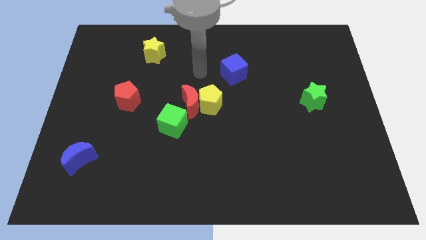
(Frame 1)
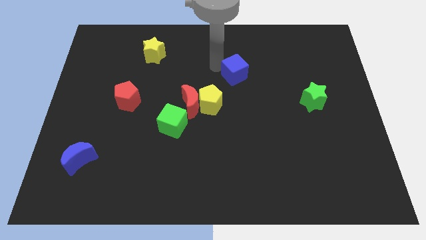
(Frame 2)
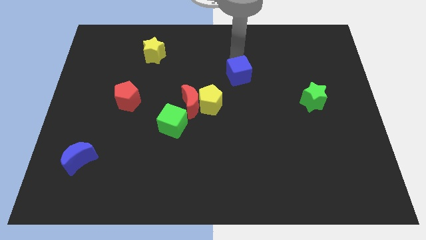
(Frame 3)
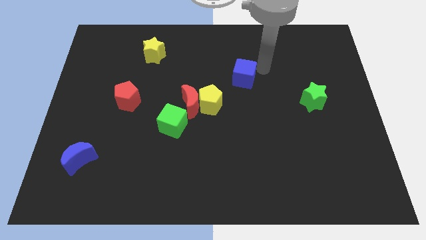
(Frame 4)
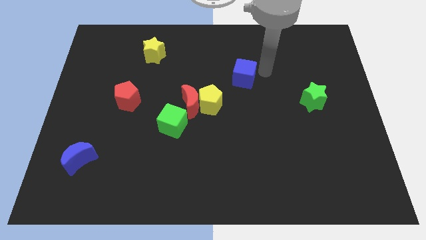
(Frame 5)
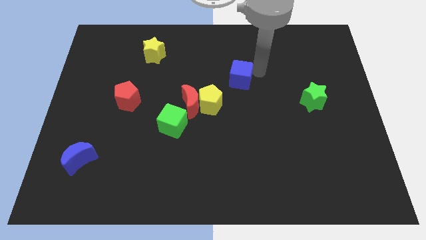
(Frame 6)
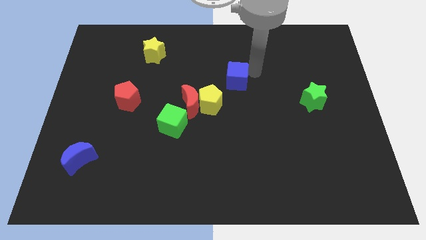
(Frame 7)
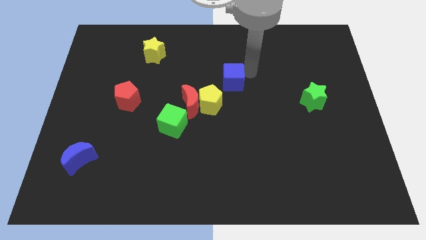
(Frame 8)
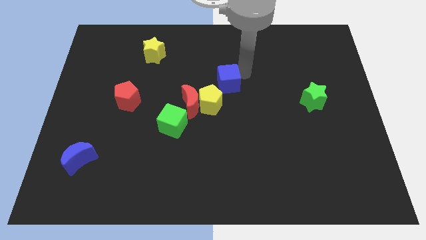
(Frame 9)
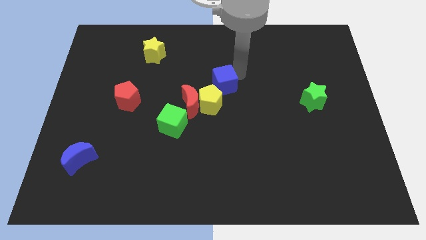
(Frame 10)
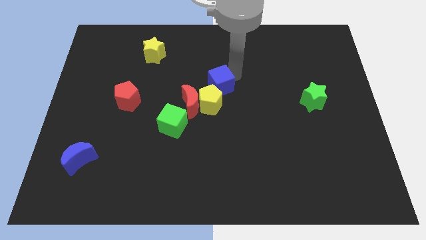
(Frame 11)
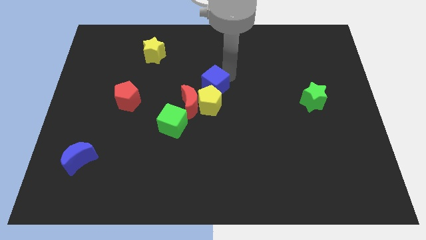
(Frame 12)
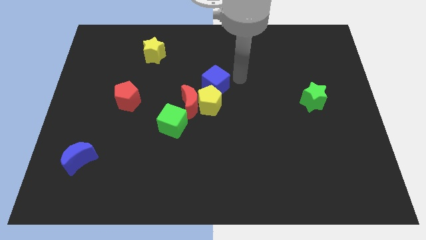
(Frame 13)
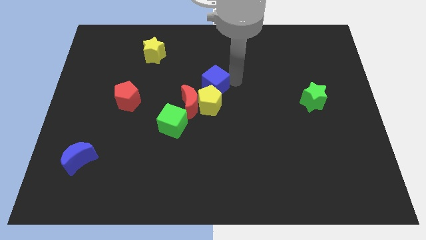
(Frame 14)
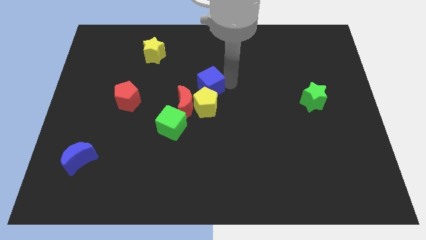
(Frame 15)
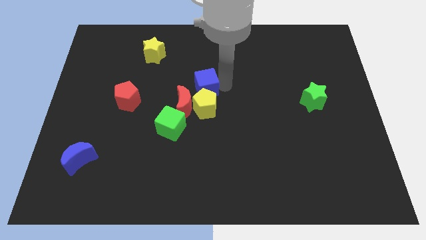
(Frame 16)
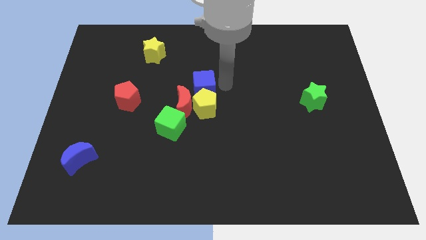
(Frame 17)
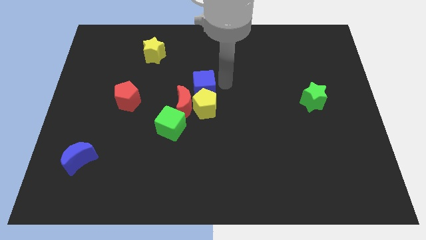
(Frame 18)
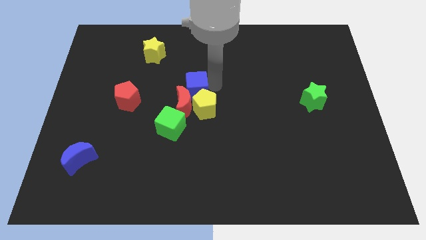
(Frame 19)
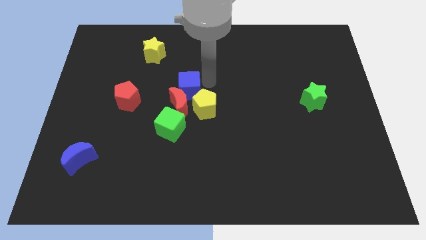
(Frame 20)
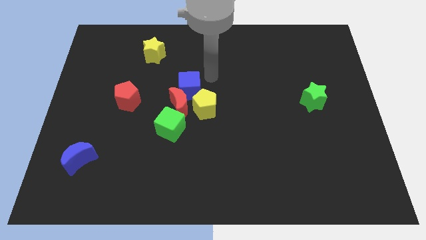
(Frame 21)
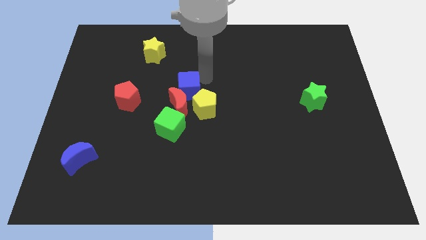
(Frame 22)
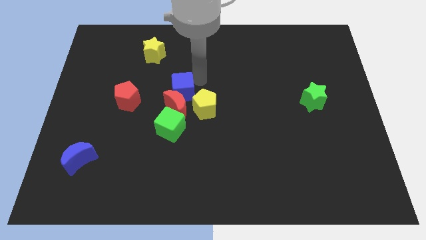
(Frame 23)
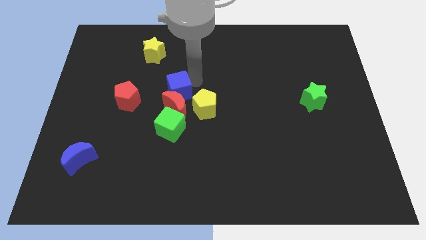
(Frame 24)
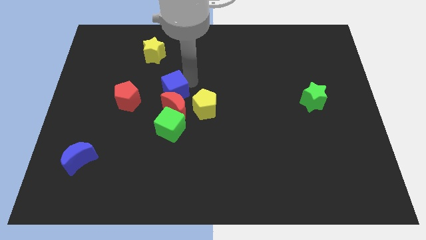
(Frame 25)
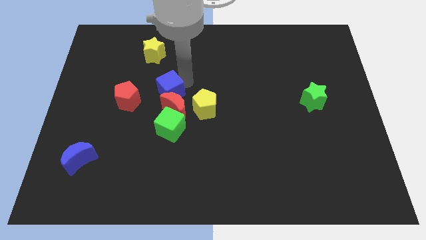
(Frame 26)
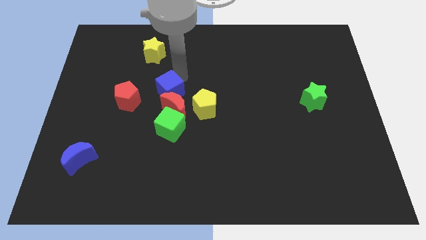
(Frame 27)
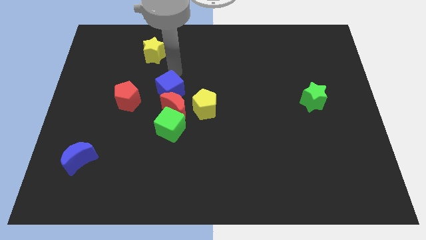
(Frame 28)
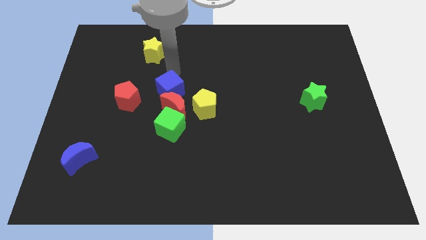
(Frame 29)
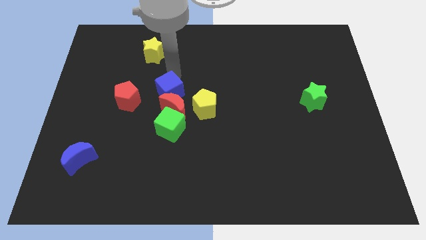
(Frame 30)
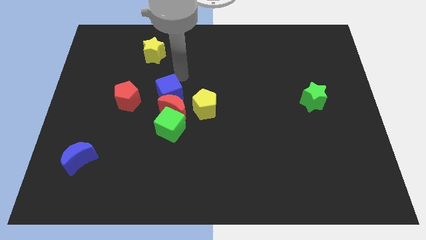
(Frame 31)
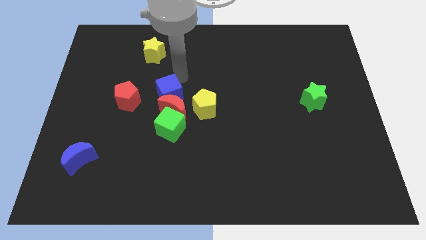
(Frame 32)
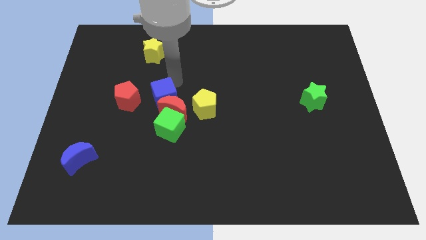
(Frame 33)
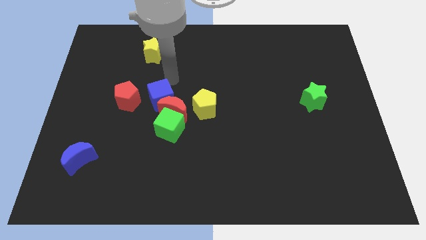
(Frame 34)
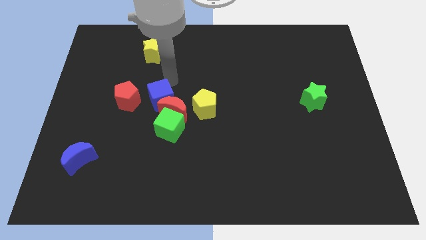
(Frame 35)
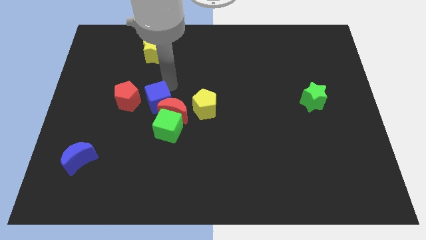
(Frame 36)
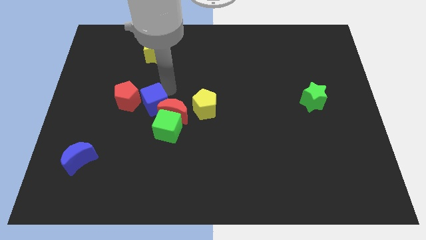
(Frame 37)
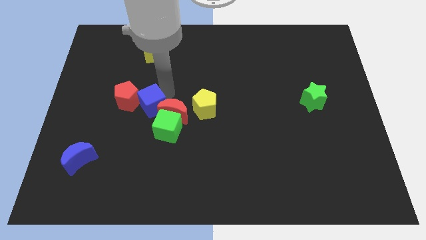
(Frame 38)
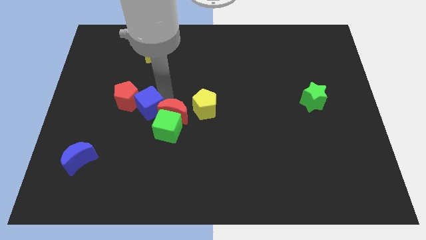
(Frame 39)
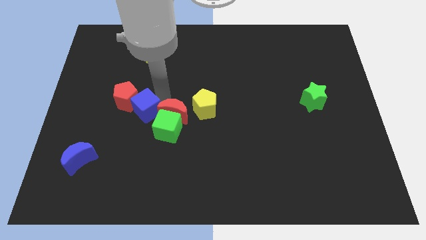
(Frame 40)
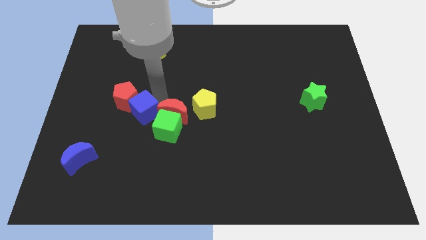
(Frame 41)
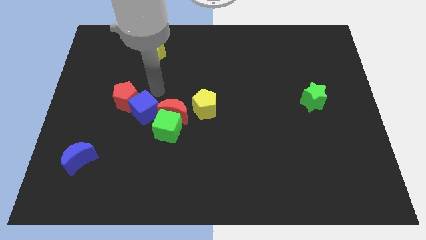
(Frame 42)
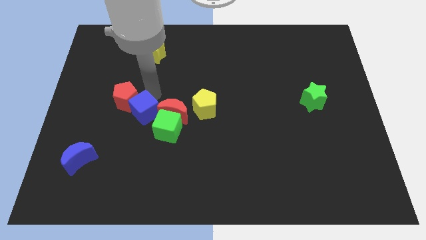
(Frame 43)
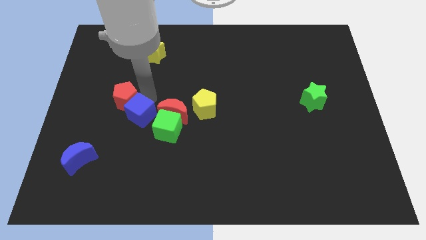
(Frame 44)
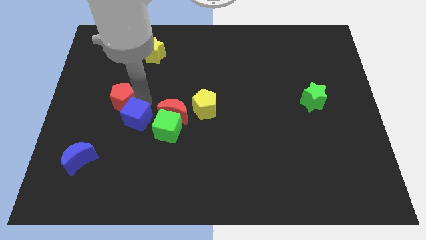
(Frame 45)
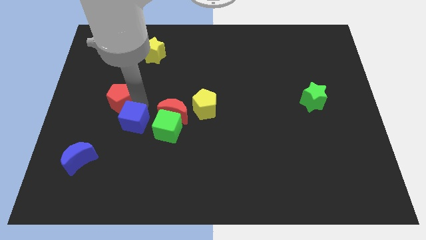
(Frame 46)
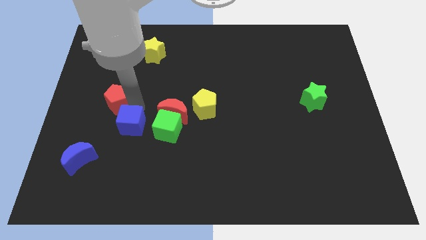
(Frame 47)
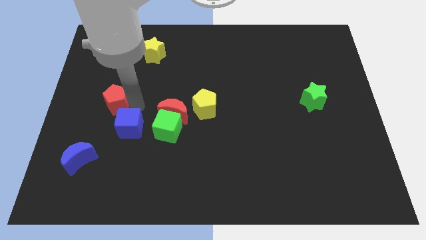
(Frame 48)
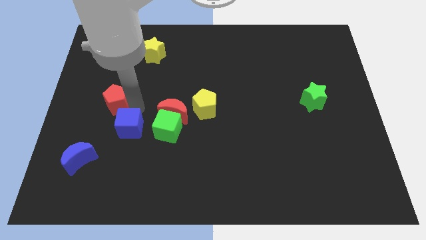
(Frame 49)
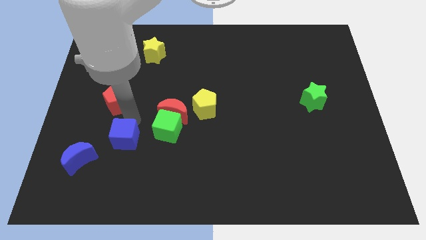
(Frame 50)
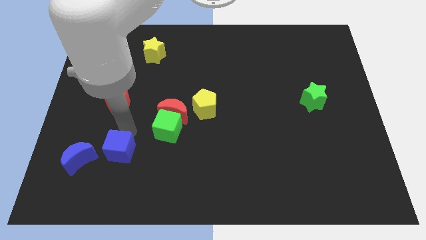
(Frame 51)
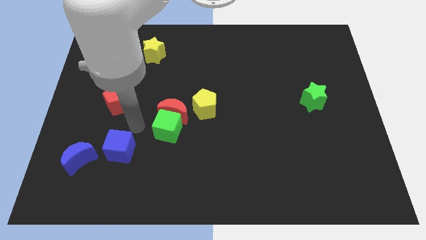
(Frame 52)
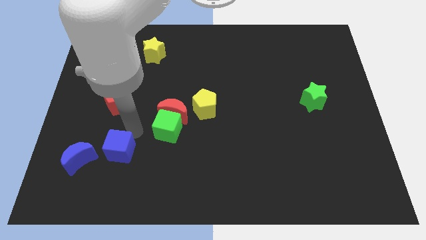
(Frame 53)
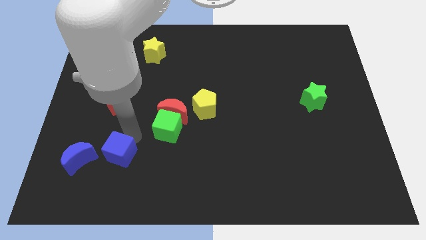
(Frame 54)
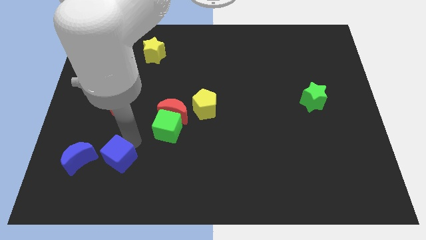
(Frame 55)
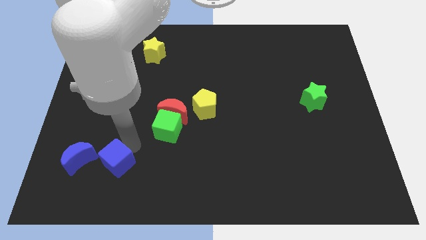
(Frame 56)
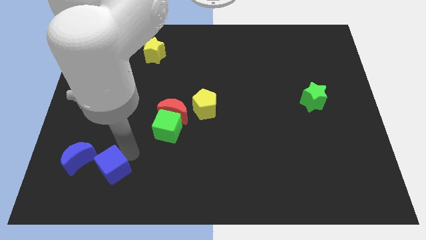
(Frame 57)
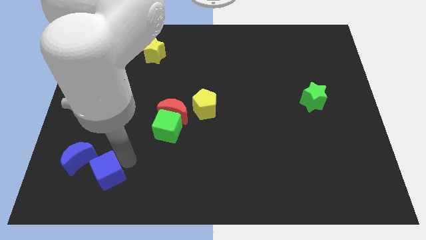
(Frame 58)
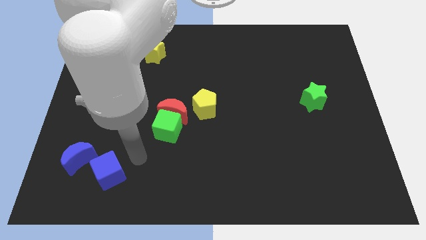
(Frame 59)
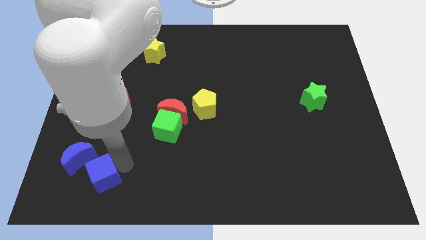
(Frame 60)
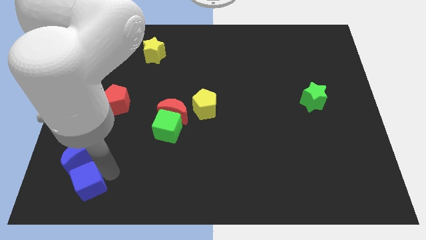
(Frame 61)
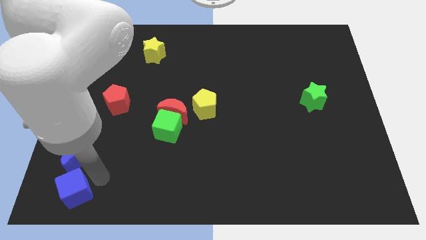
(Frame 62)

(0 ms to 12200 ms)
put the blue cube to the bottom left
